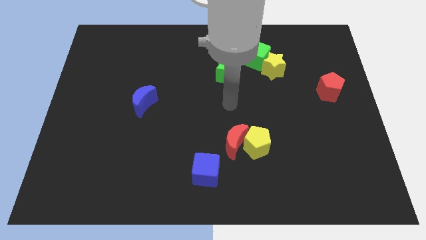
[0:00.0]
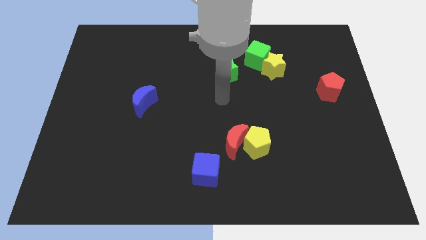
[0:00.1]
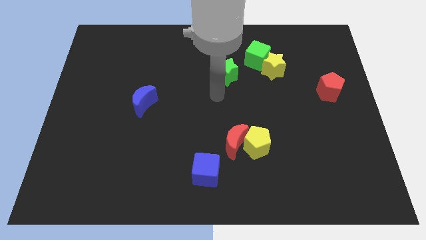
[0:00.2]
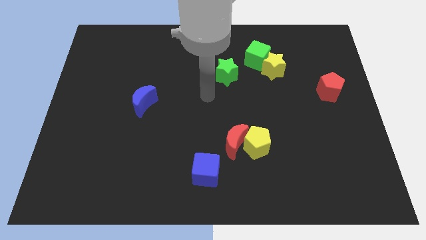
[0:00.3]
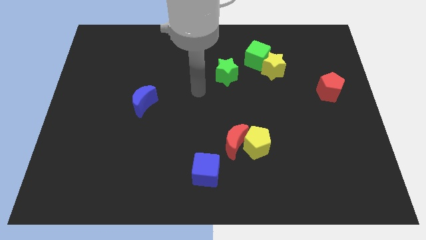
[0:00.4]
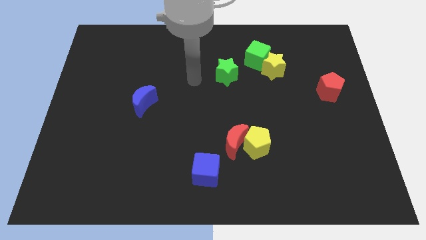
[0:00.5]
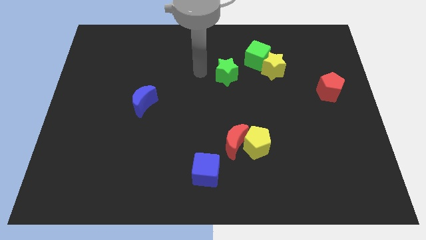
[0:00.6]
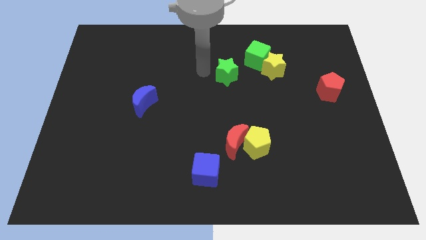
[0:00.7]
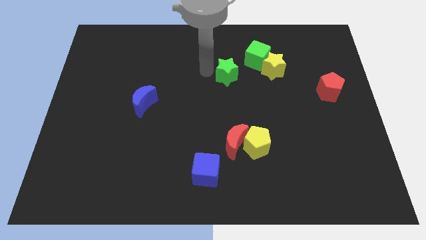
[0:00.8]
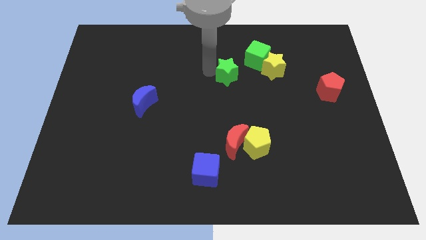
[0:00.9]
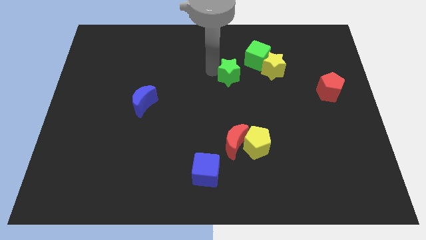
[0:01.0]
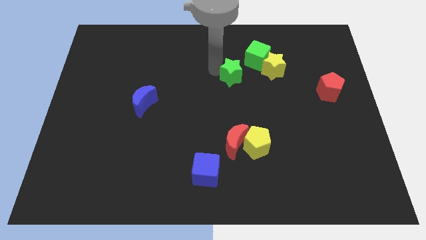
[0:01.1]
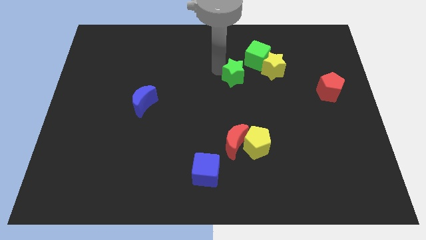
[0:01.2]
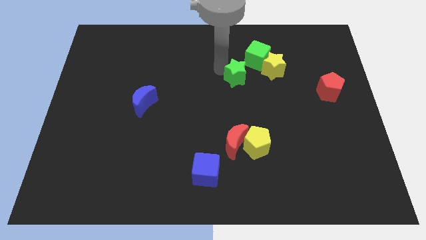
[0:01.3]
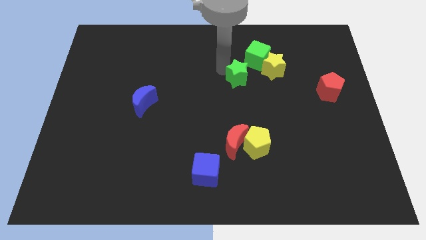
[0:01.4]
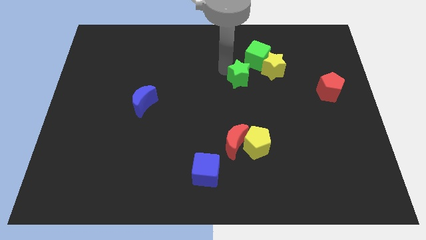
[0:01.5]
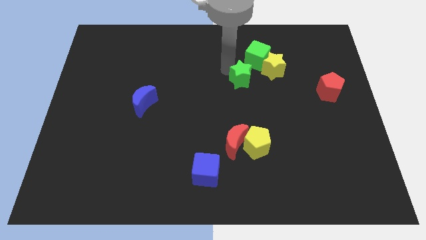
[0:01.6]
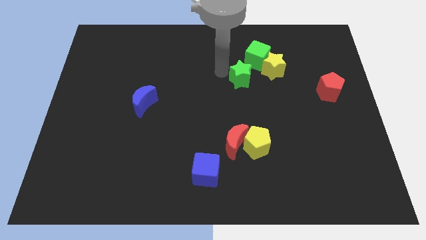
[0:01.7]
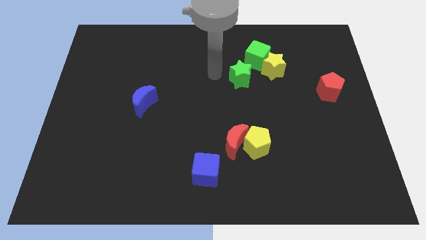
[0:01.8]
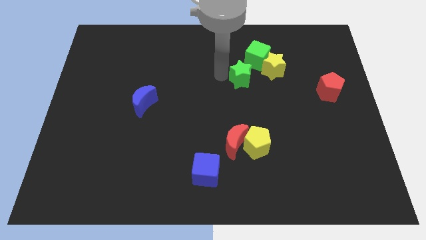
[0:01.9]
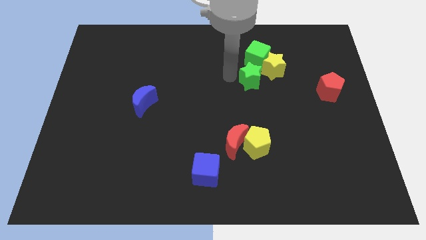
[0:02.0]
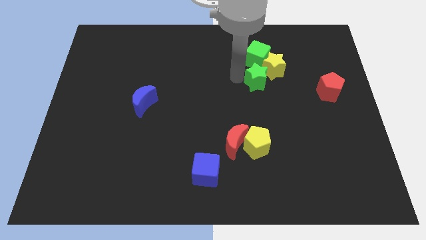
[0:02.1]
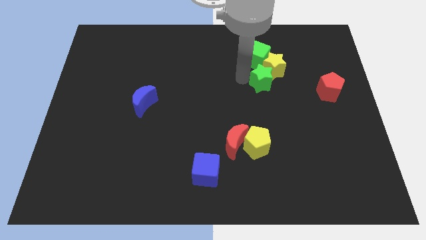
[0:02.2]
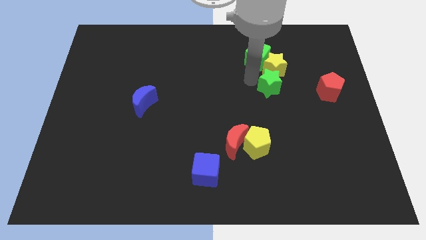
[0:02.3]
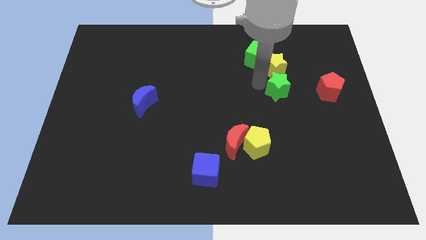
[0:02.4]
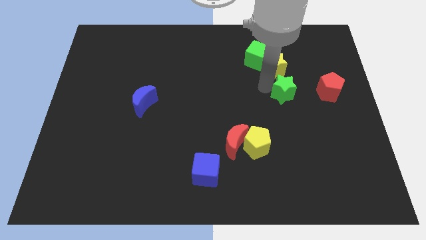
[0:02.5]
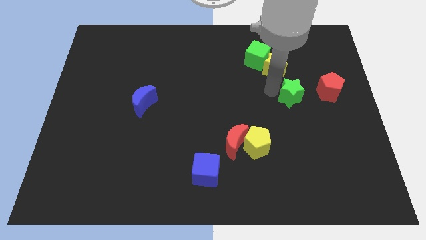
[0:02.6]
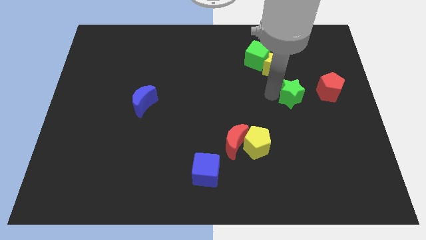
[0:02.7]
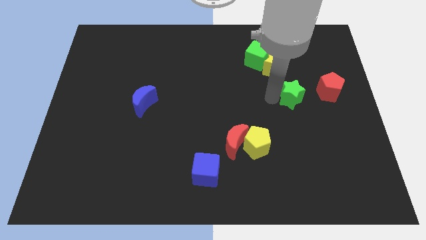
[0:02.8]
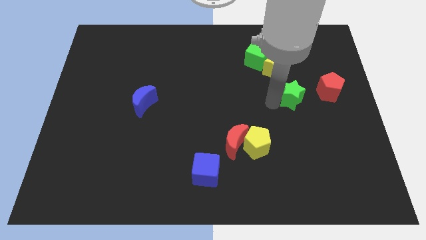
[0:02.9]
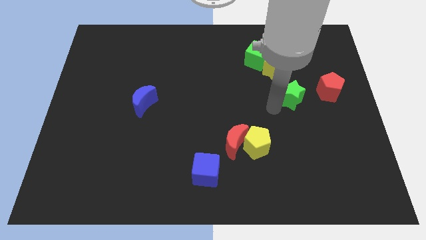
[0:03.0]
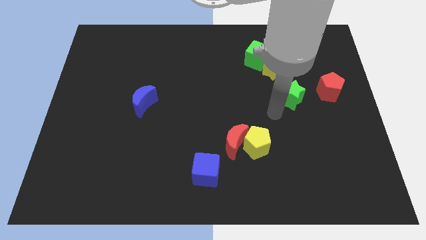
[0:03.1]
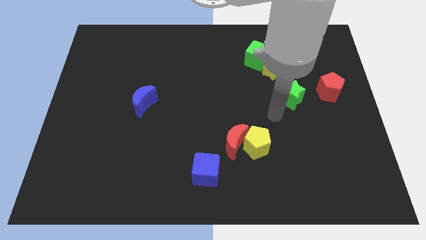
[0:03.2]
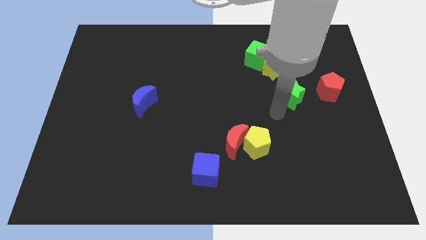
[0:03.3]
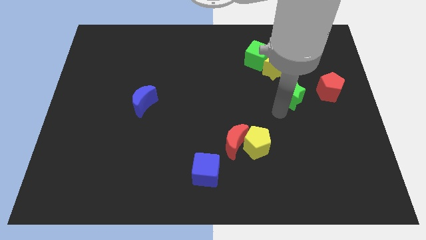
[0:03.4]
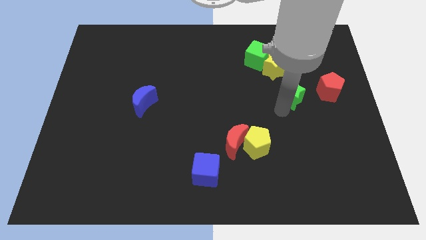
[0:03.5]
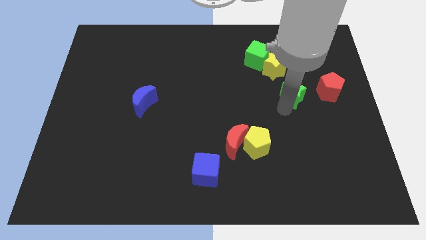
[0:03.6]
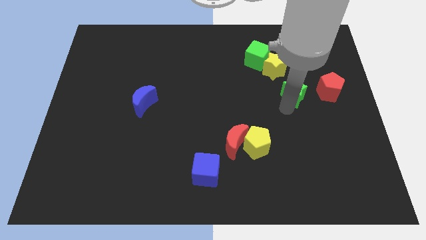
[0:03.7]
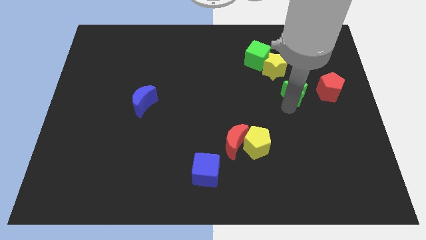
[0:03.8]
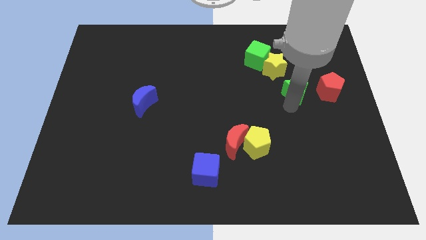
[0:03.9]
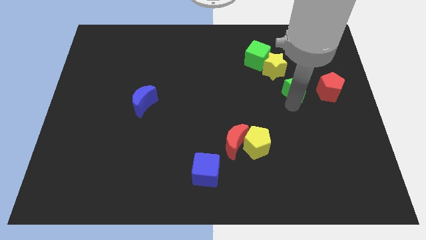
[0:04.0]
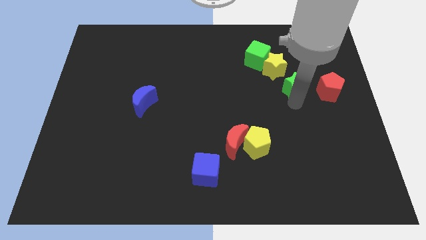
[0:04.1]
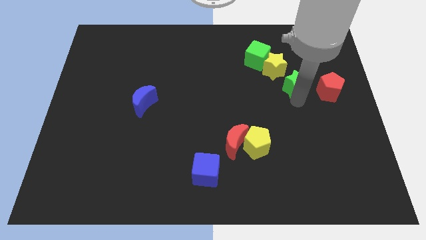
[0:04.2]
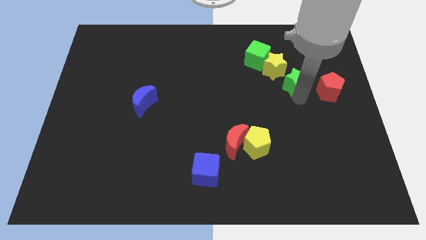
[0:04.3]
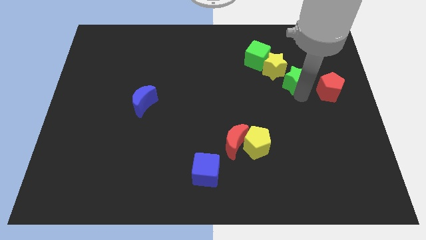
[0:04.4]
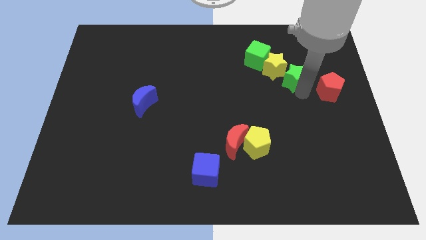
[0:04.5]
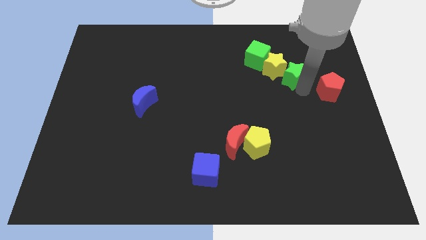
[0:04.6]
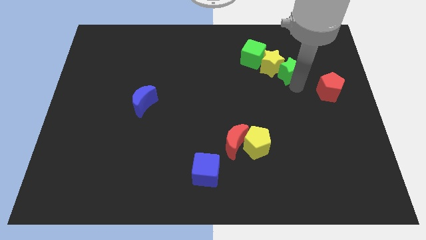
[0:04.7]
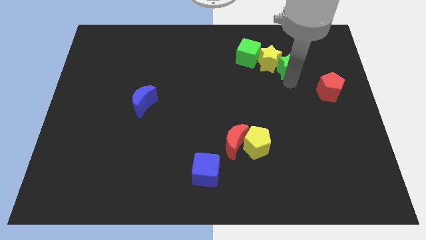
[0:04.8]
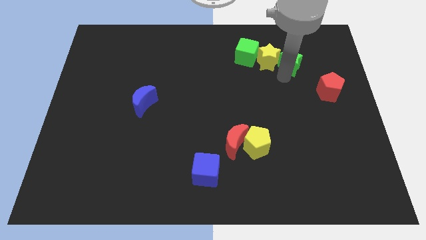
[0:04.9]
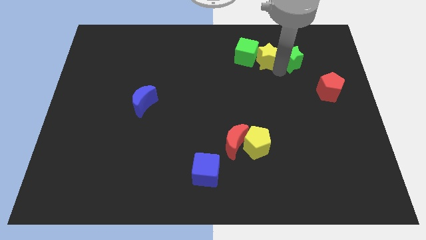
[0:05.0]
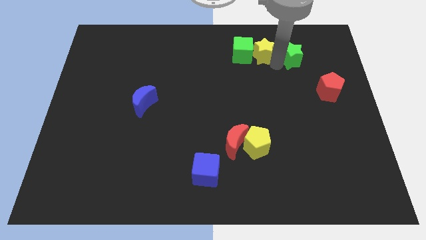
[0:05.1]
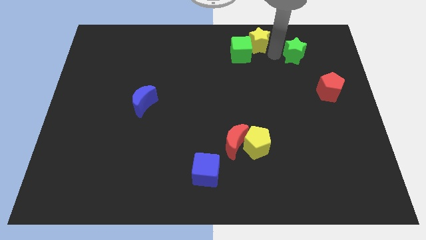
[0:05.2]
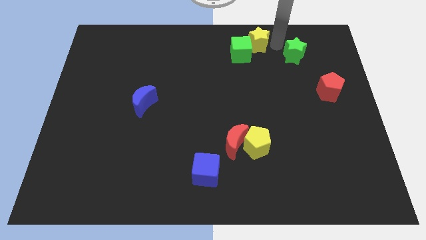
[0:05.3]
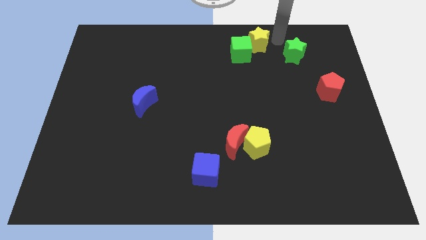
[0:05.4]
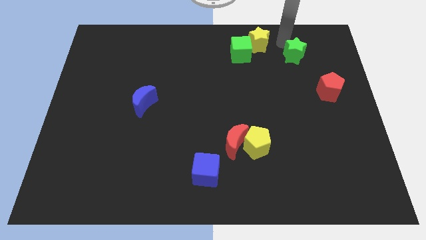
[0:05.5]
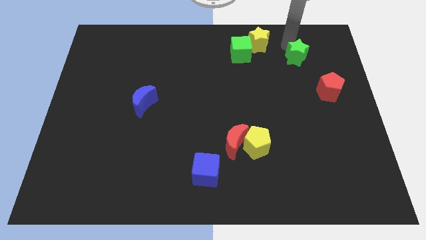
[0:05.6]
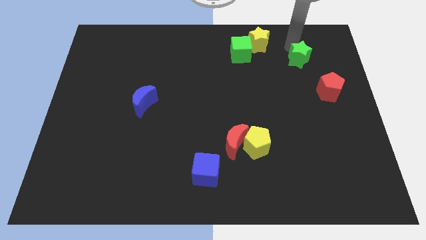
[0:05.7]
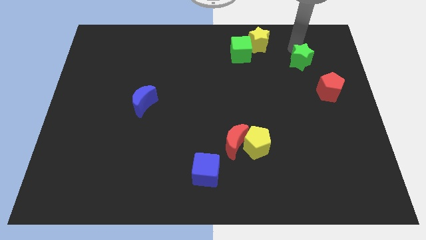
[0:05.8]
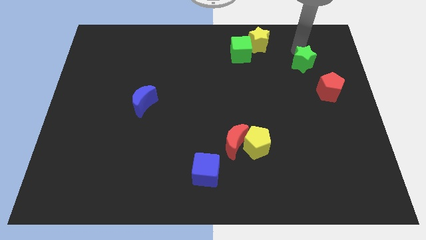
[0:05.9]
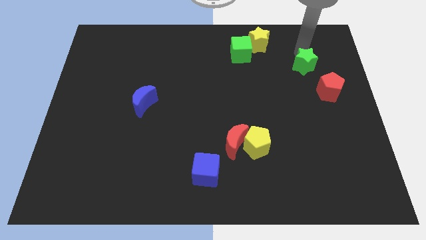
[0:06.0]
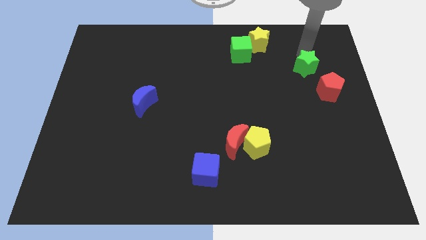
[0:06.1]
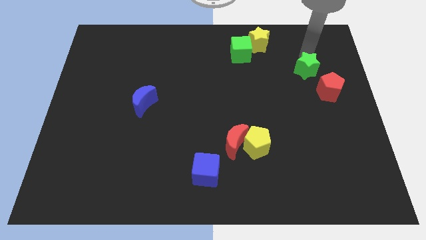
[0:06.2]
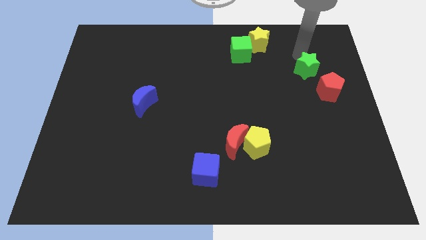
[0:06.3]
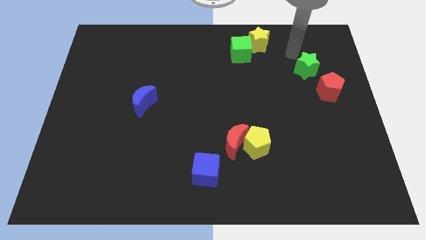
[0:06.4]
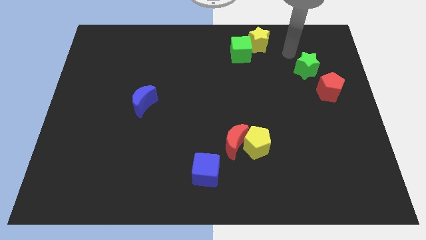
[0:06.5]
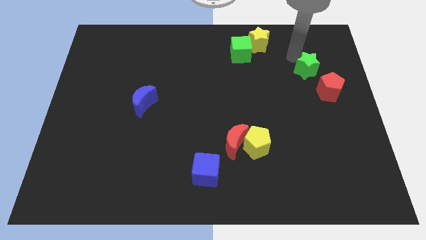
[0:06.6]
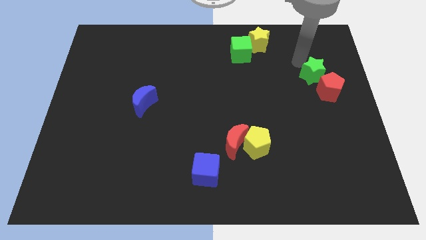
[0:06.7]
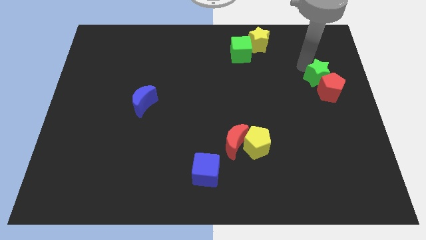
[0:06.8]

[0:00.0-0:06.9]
slide the green star close to the red pentagon
